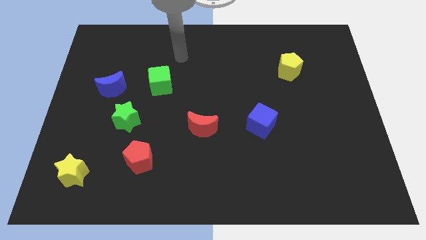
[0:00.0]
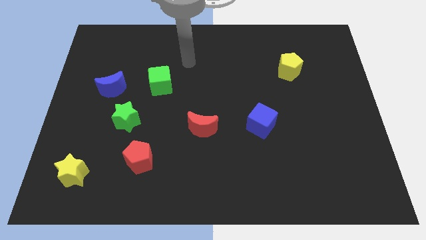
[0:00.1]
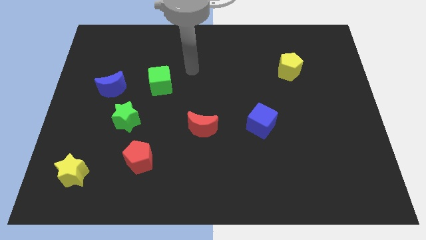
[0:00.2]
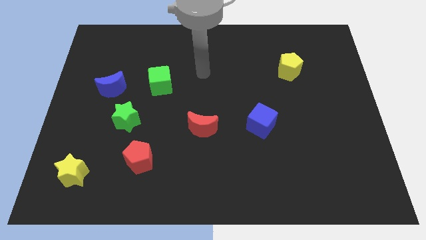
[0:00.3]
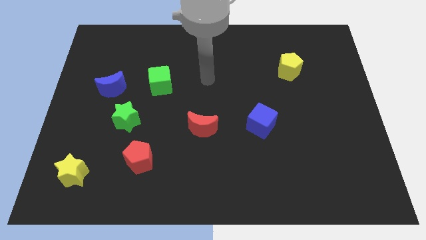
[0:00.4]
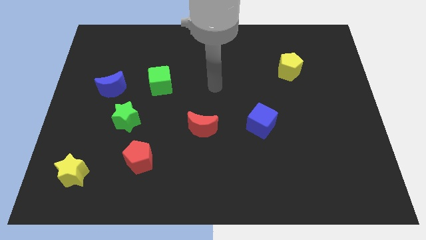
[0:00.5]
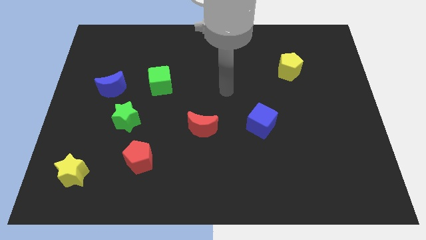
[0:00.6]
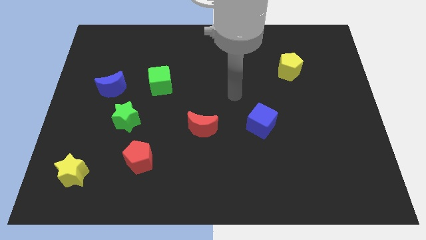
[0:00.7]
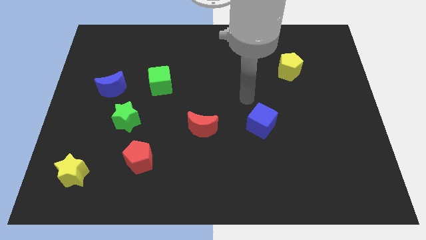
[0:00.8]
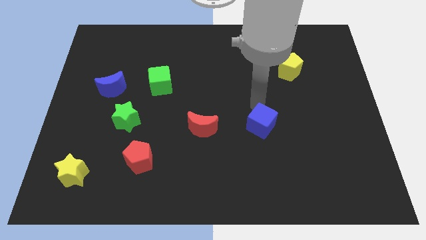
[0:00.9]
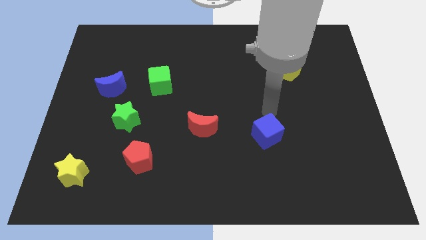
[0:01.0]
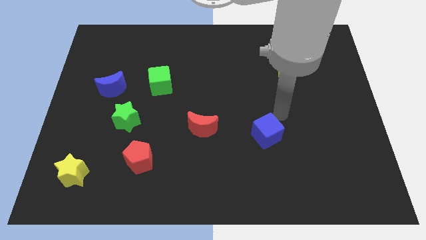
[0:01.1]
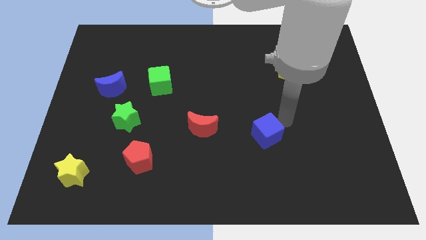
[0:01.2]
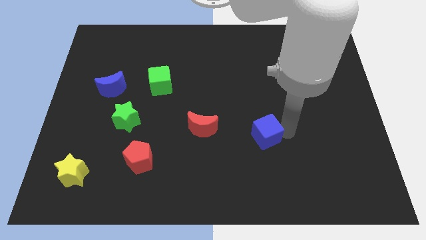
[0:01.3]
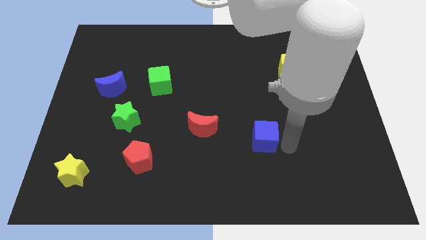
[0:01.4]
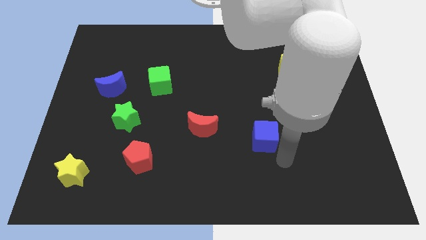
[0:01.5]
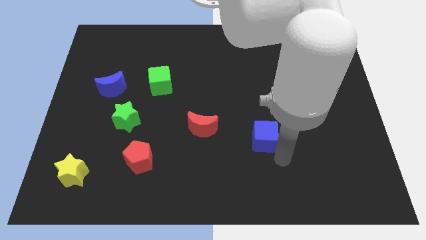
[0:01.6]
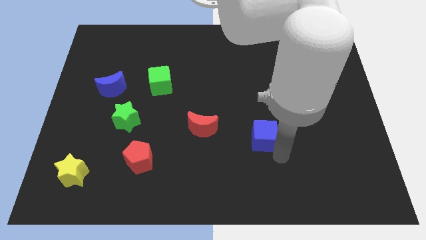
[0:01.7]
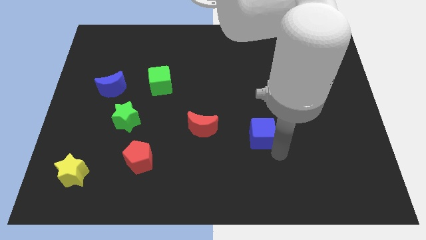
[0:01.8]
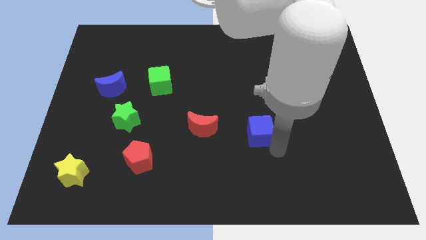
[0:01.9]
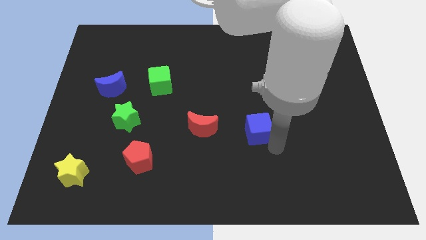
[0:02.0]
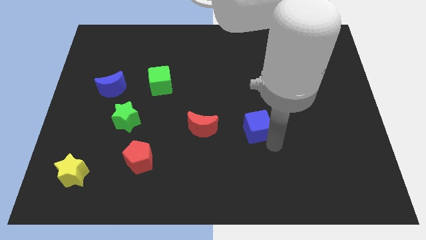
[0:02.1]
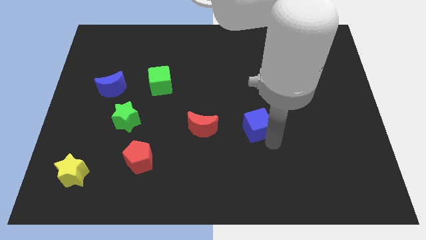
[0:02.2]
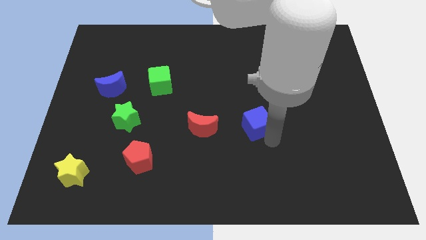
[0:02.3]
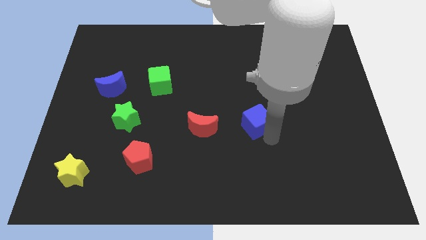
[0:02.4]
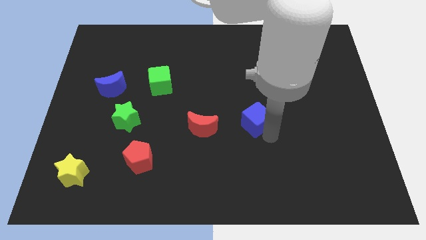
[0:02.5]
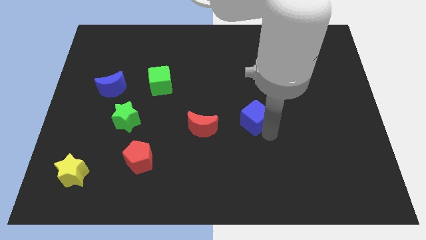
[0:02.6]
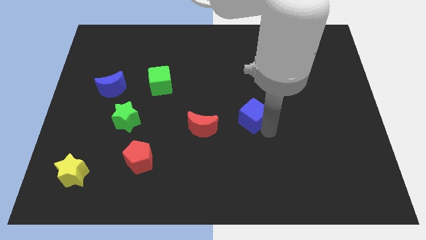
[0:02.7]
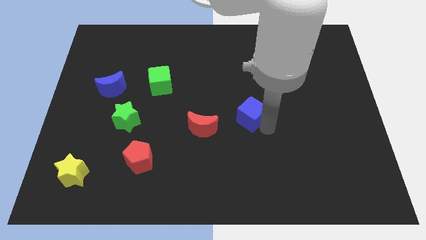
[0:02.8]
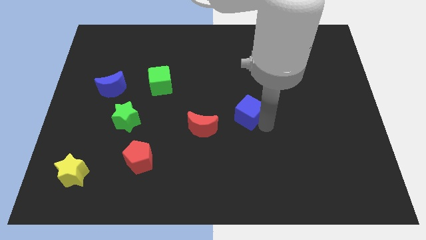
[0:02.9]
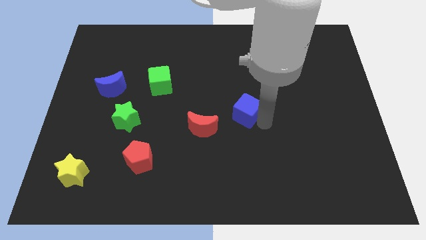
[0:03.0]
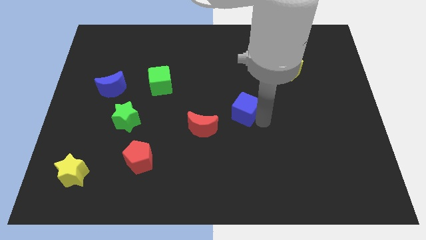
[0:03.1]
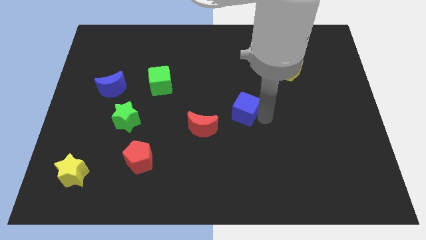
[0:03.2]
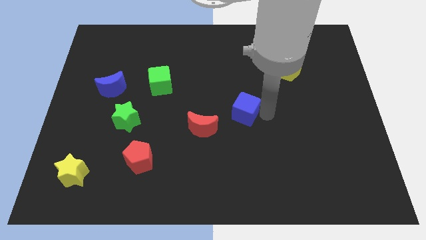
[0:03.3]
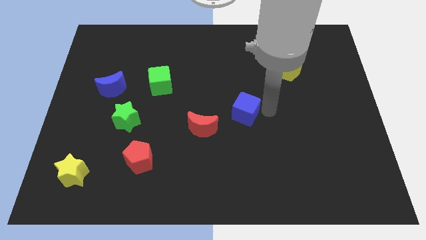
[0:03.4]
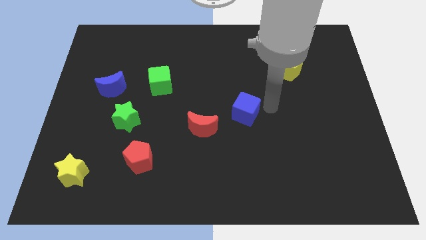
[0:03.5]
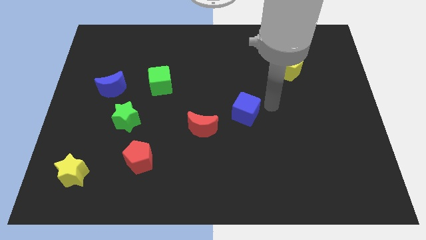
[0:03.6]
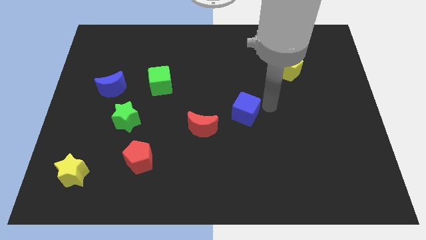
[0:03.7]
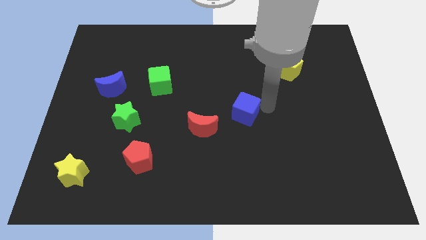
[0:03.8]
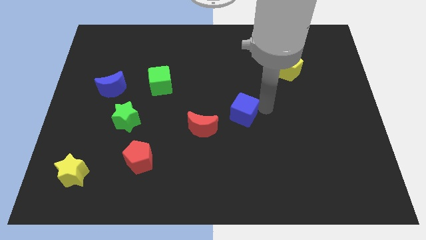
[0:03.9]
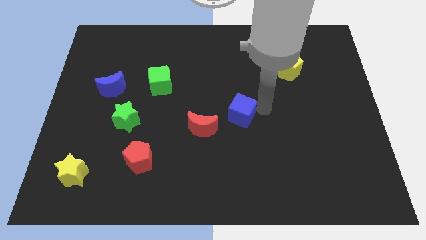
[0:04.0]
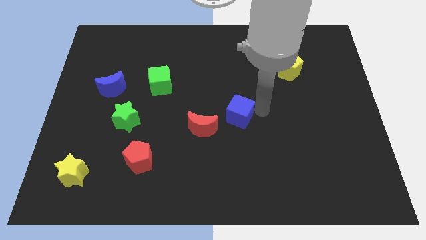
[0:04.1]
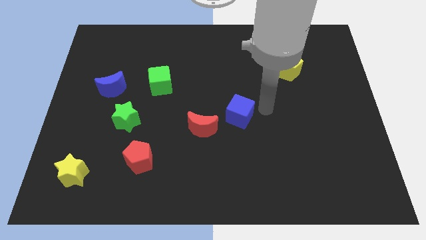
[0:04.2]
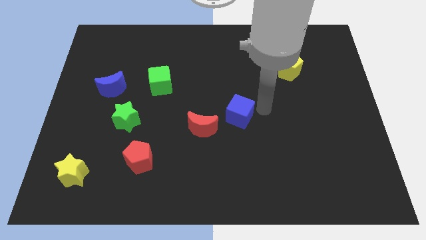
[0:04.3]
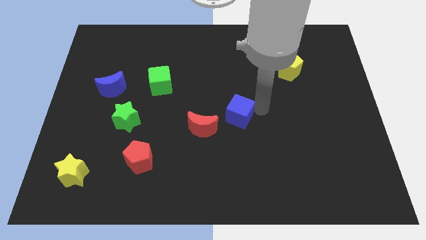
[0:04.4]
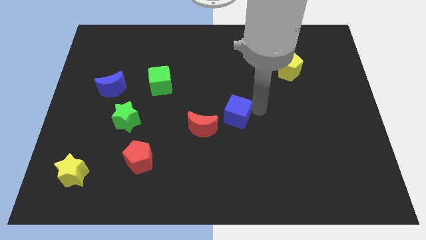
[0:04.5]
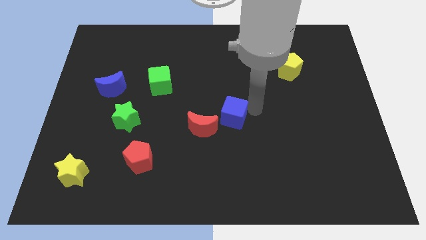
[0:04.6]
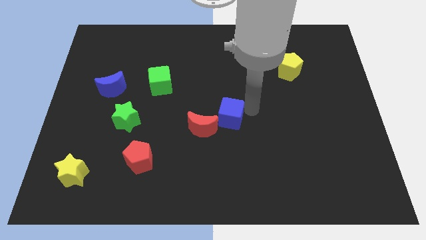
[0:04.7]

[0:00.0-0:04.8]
slide the blue cube a bit left

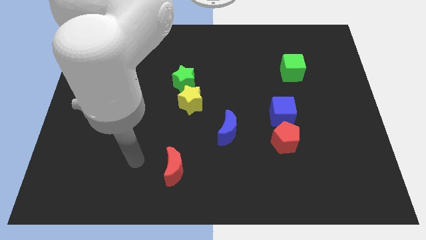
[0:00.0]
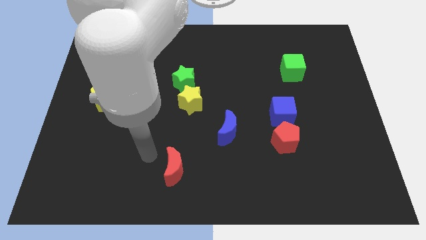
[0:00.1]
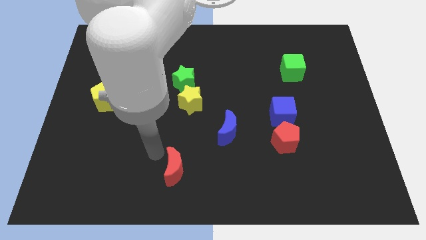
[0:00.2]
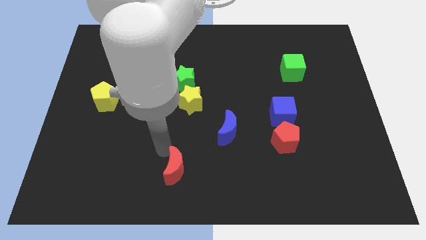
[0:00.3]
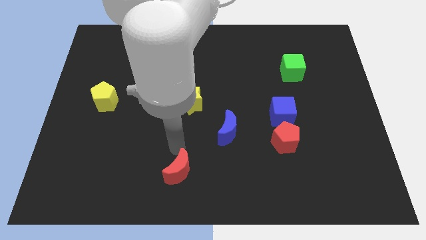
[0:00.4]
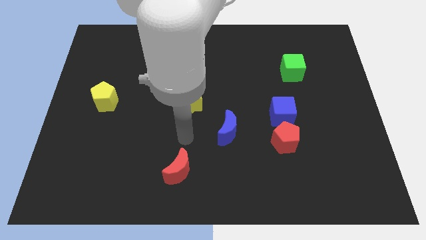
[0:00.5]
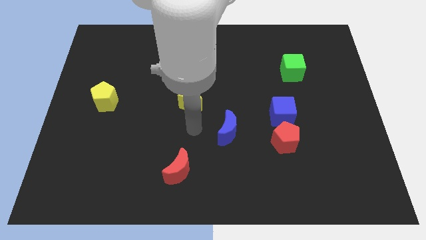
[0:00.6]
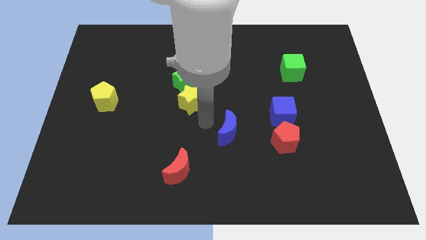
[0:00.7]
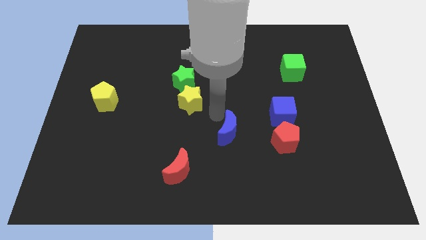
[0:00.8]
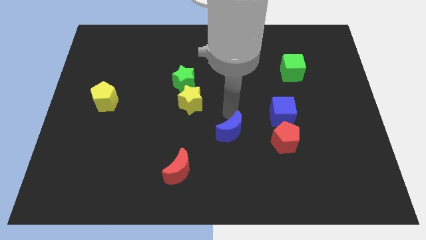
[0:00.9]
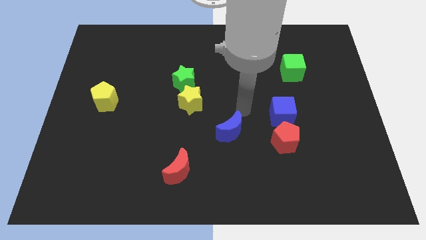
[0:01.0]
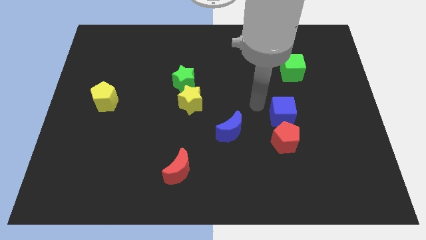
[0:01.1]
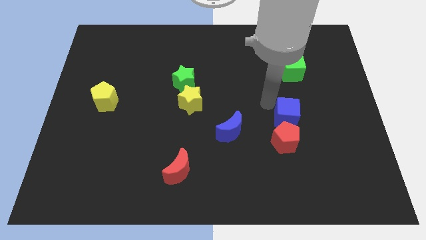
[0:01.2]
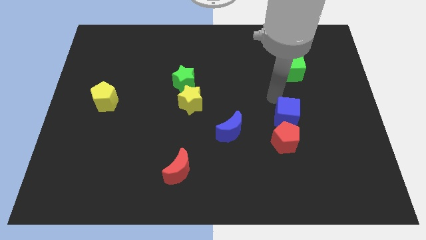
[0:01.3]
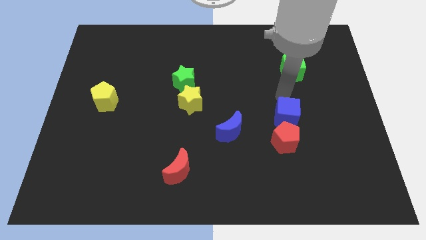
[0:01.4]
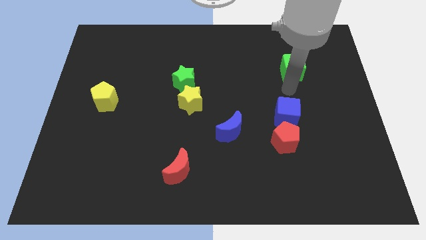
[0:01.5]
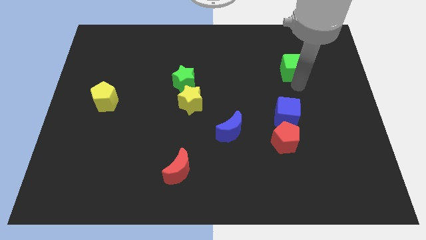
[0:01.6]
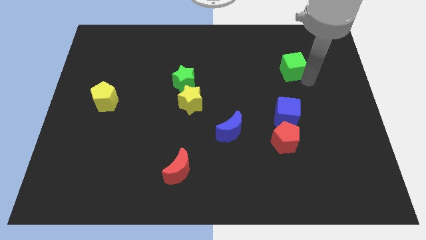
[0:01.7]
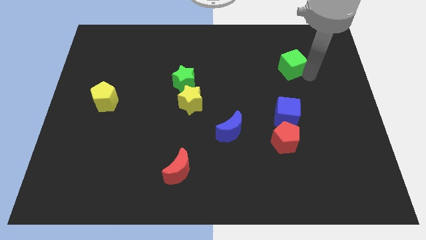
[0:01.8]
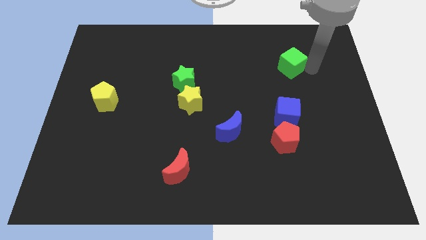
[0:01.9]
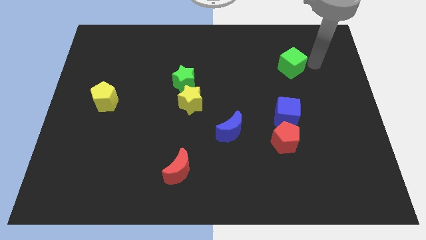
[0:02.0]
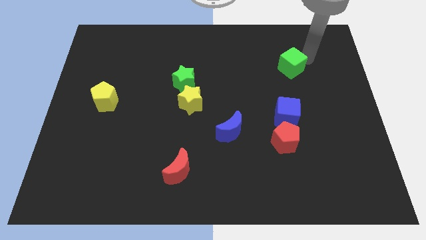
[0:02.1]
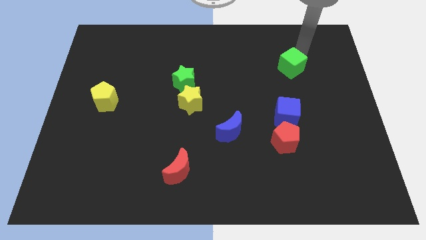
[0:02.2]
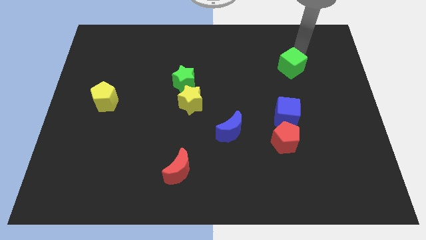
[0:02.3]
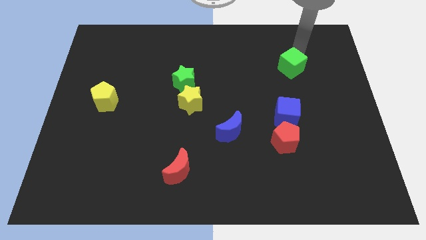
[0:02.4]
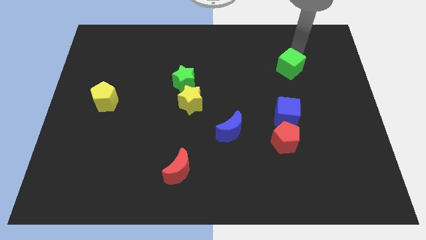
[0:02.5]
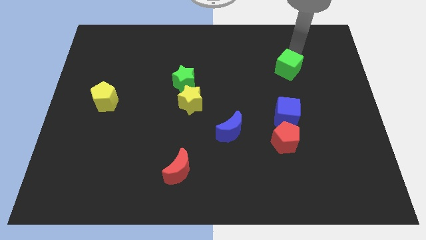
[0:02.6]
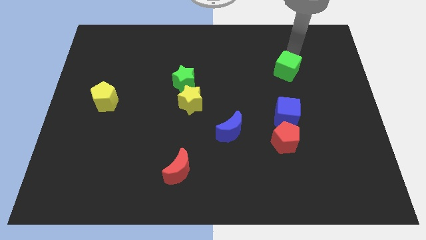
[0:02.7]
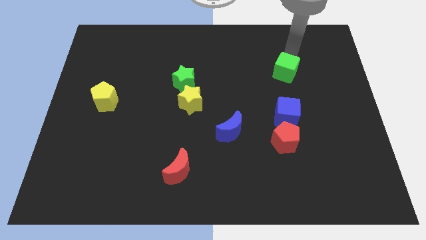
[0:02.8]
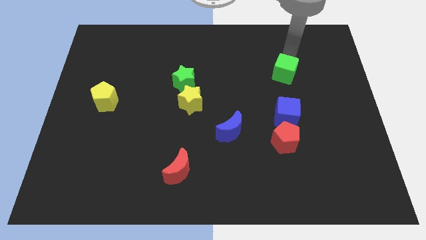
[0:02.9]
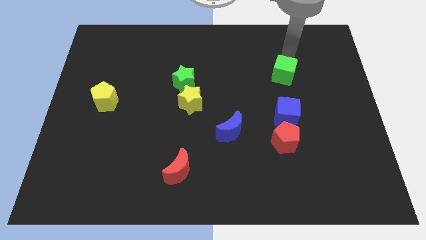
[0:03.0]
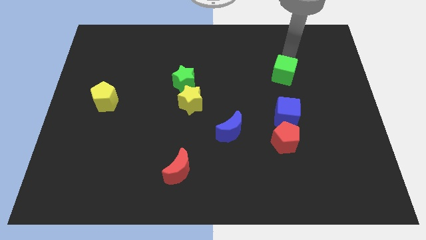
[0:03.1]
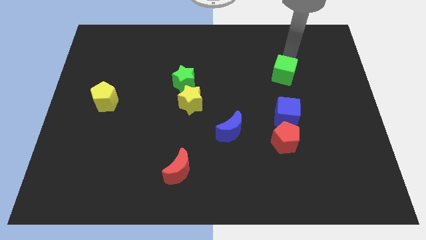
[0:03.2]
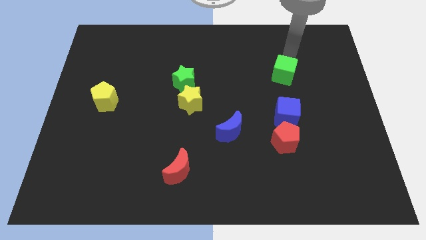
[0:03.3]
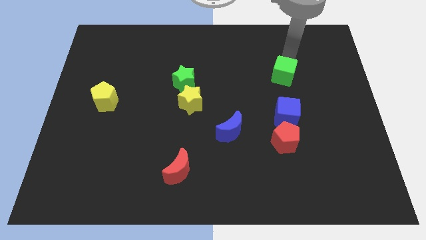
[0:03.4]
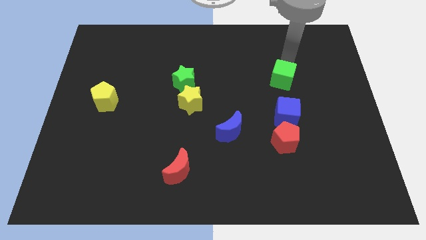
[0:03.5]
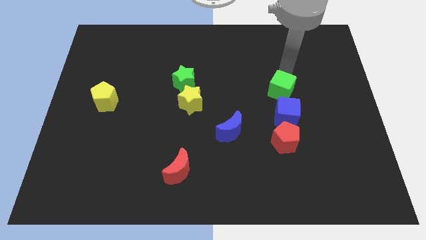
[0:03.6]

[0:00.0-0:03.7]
move the green cube a little diagonally down and to the left
